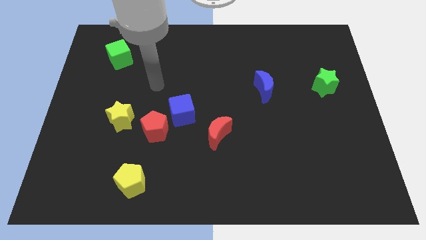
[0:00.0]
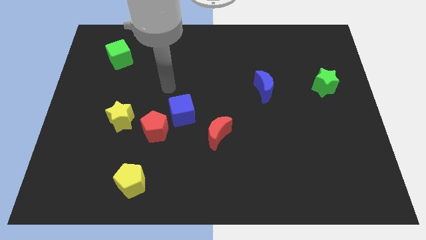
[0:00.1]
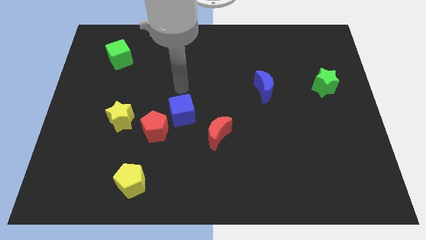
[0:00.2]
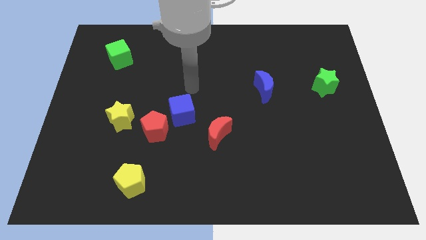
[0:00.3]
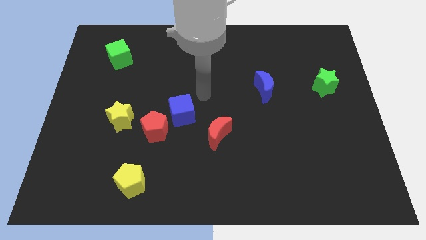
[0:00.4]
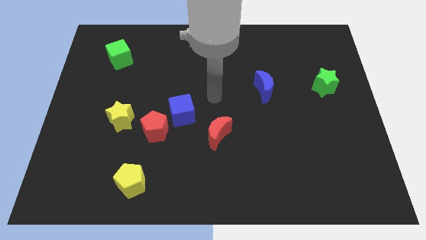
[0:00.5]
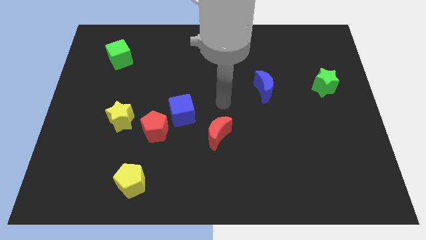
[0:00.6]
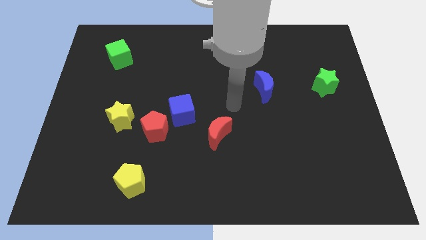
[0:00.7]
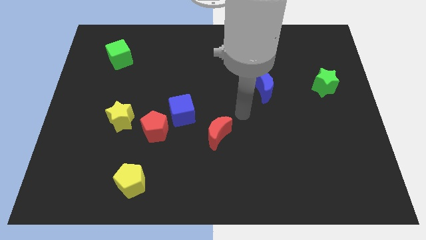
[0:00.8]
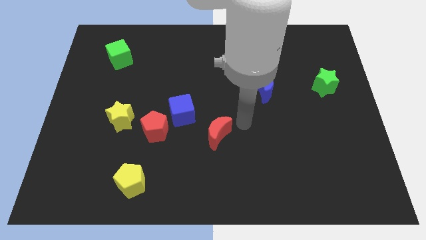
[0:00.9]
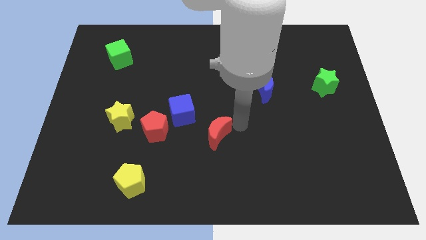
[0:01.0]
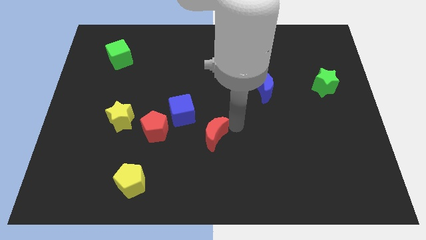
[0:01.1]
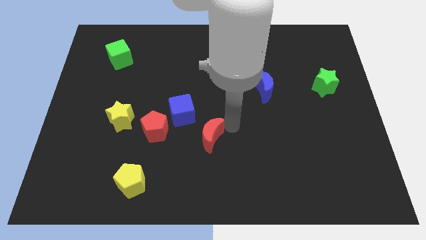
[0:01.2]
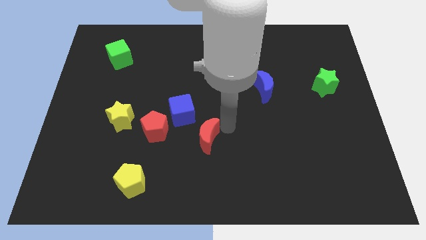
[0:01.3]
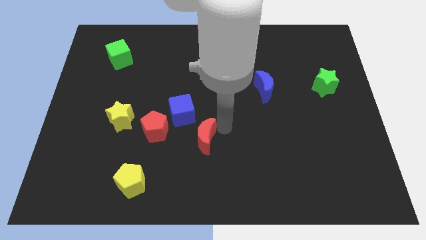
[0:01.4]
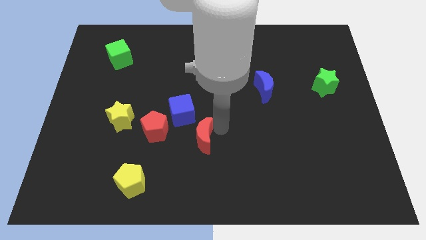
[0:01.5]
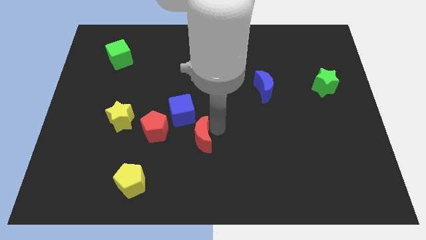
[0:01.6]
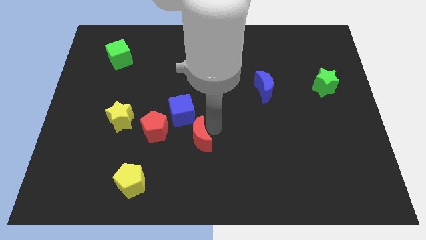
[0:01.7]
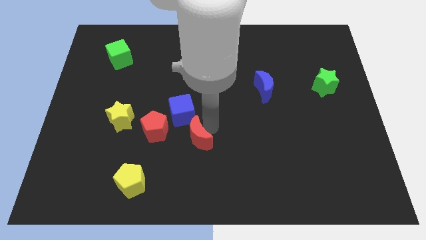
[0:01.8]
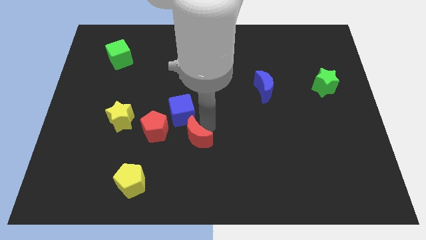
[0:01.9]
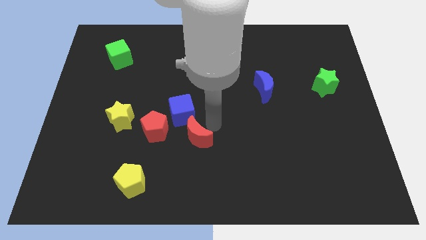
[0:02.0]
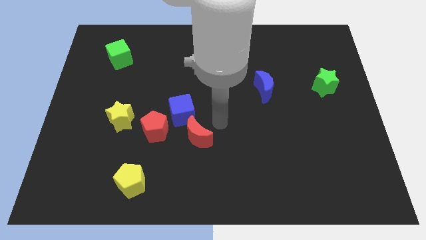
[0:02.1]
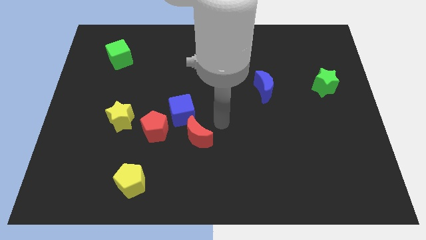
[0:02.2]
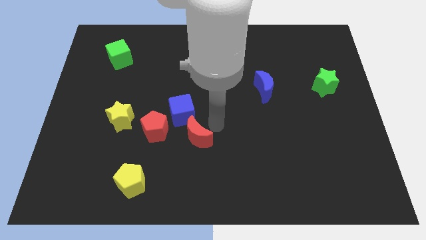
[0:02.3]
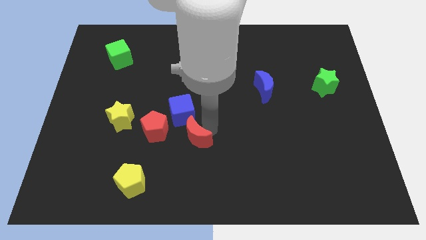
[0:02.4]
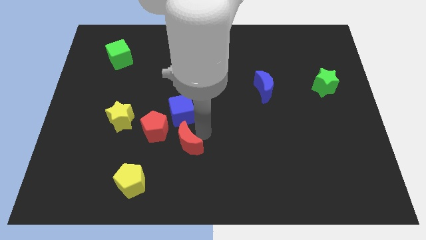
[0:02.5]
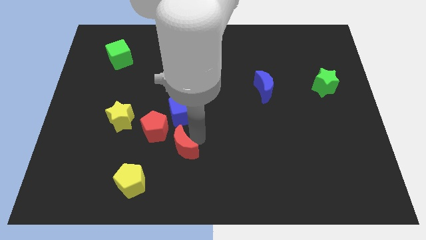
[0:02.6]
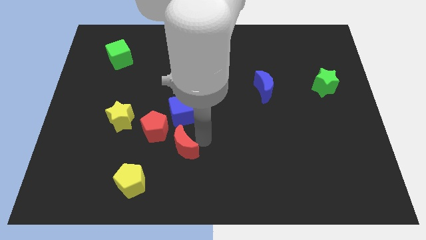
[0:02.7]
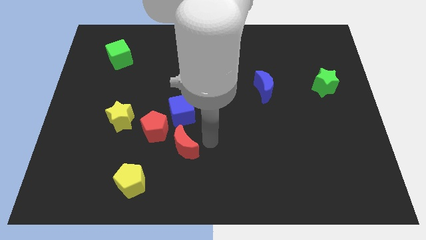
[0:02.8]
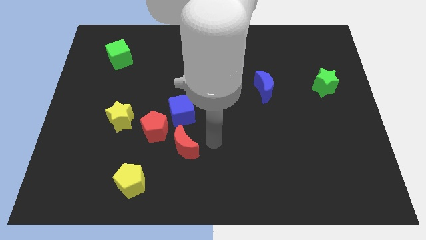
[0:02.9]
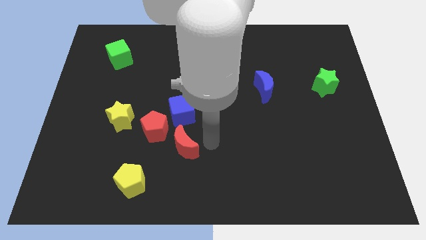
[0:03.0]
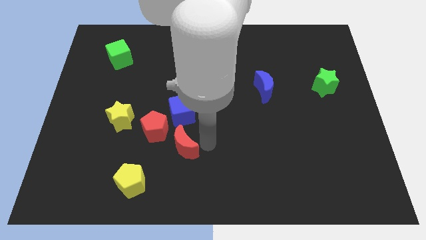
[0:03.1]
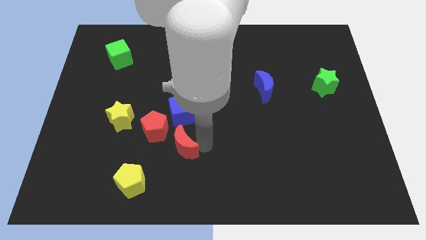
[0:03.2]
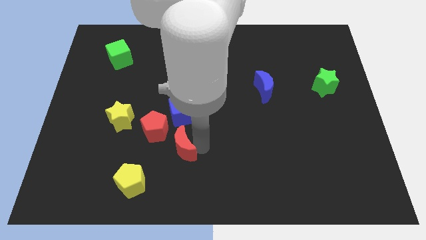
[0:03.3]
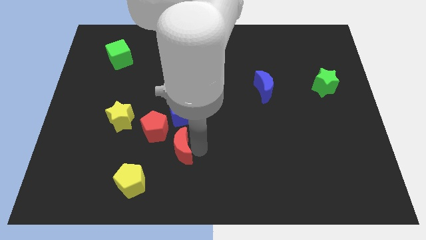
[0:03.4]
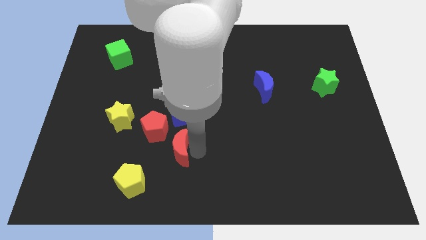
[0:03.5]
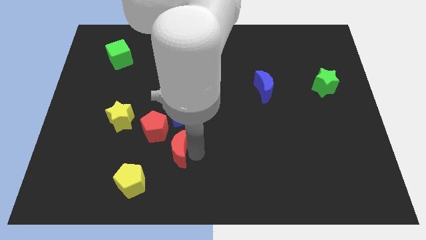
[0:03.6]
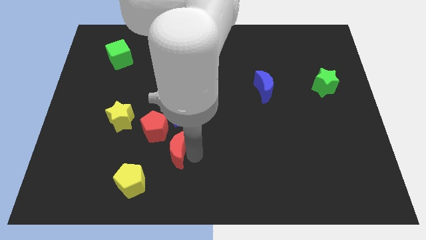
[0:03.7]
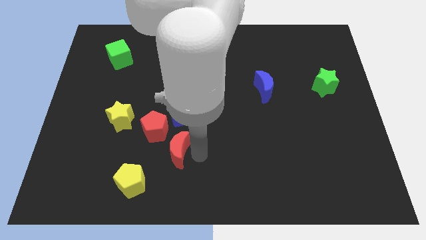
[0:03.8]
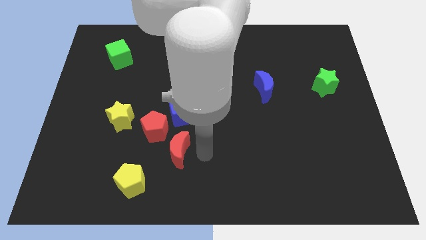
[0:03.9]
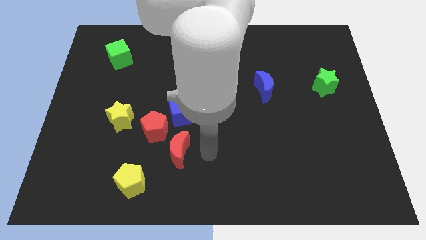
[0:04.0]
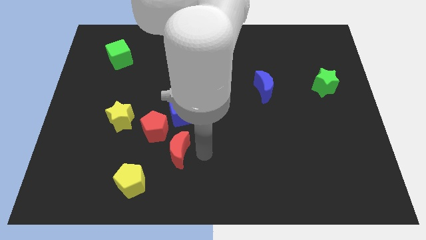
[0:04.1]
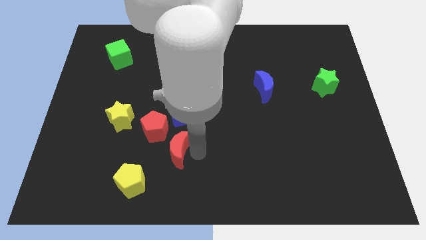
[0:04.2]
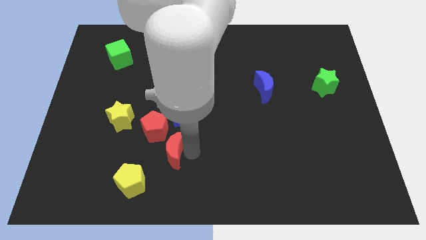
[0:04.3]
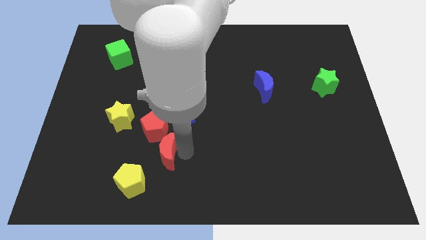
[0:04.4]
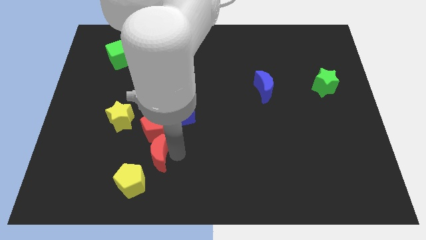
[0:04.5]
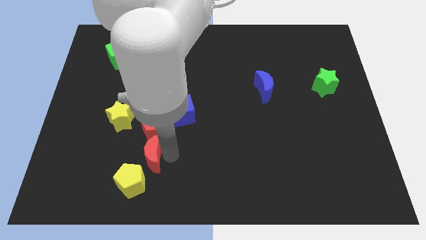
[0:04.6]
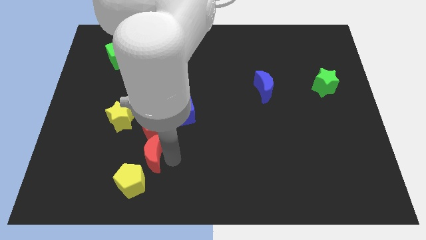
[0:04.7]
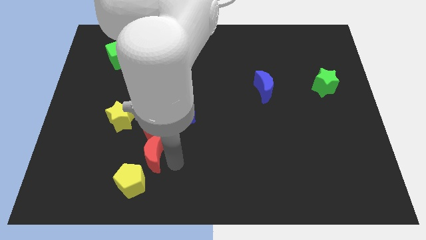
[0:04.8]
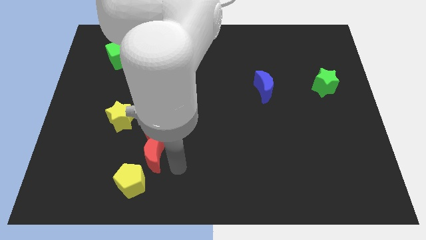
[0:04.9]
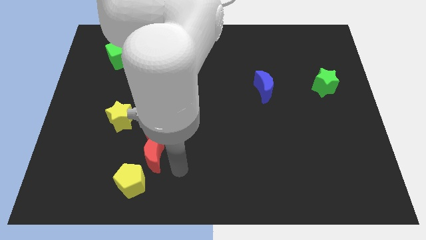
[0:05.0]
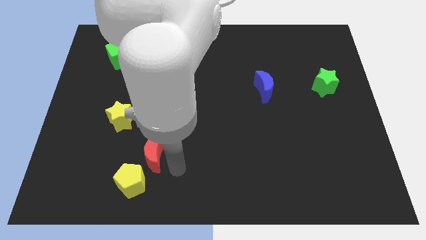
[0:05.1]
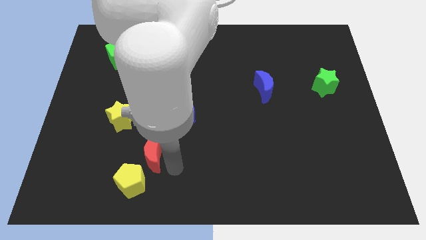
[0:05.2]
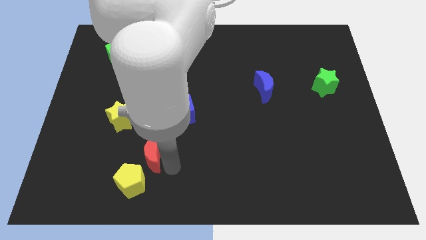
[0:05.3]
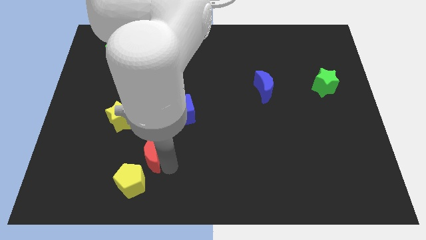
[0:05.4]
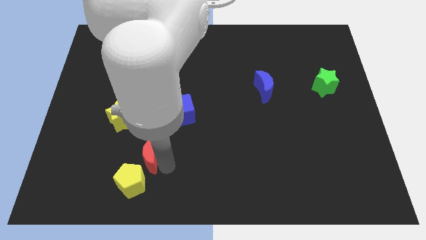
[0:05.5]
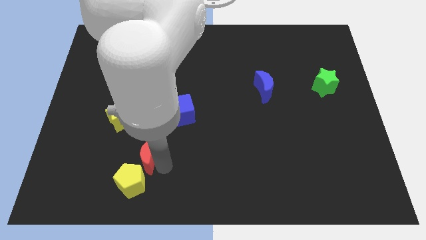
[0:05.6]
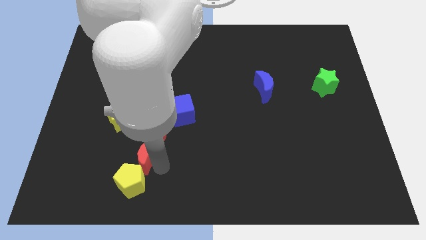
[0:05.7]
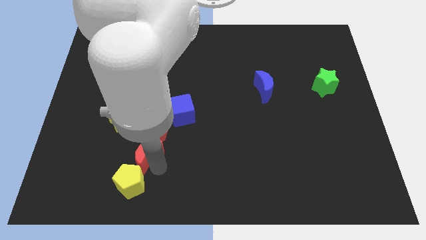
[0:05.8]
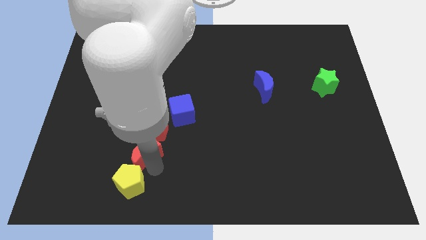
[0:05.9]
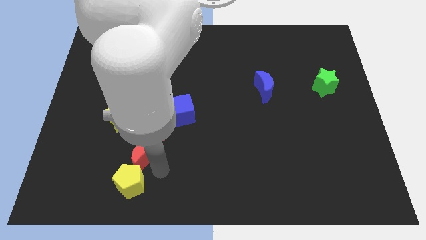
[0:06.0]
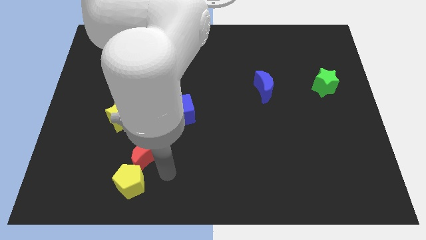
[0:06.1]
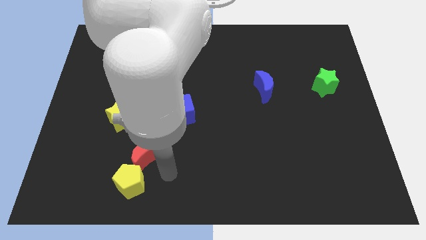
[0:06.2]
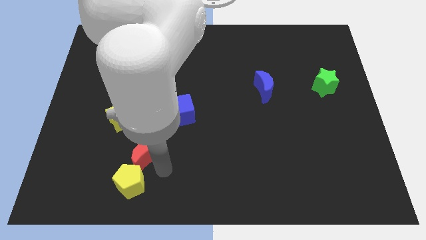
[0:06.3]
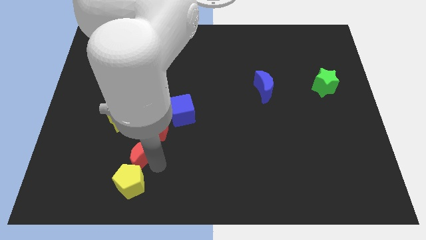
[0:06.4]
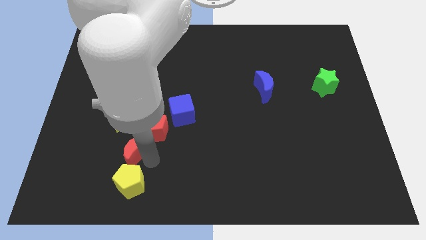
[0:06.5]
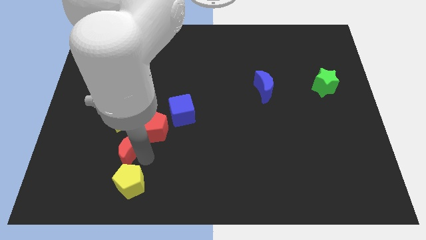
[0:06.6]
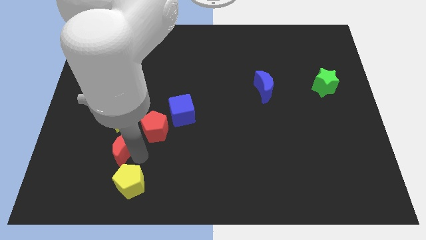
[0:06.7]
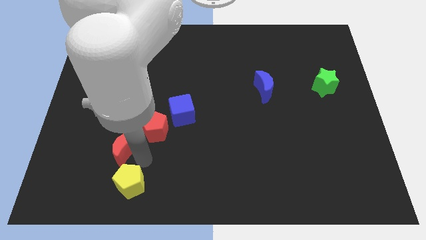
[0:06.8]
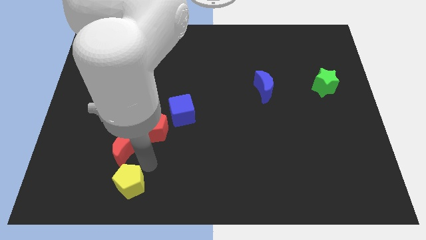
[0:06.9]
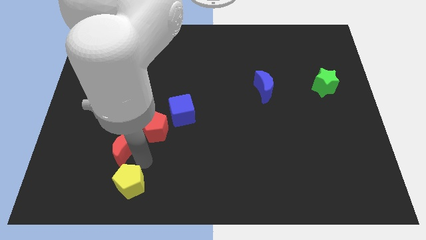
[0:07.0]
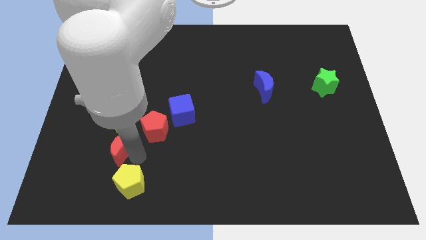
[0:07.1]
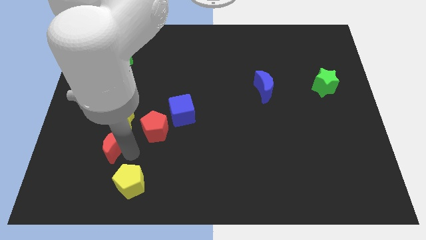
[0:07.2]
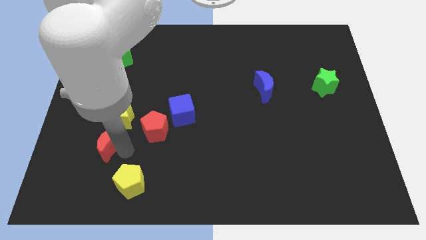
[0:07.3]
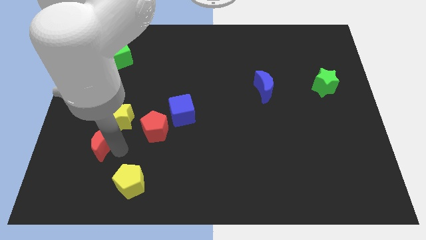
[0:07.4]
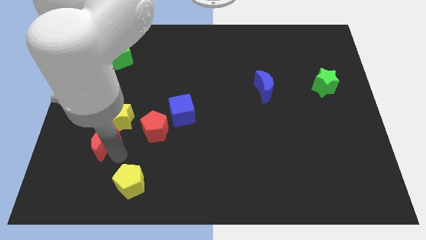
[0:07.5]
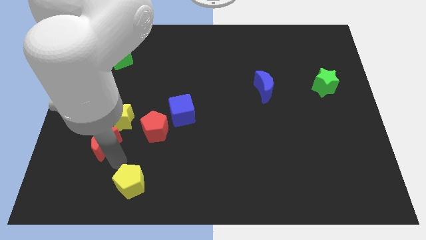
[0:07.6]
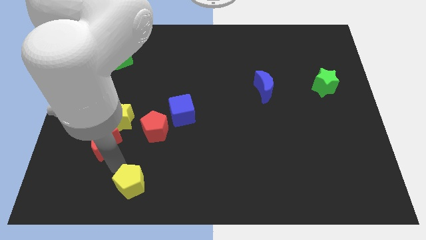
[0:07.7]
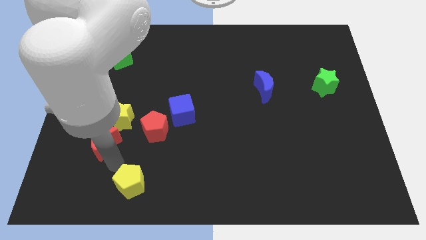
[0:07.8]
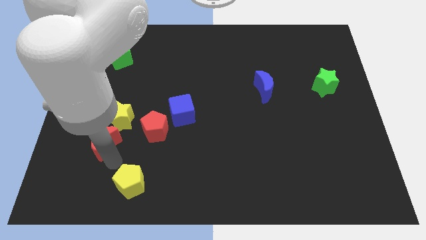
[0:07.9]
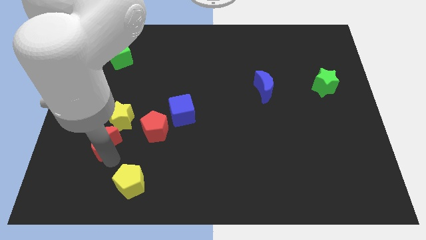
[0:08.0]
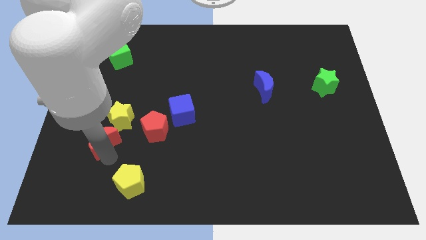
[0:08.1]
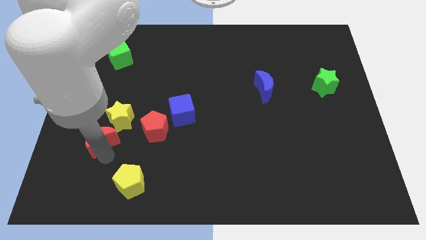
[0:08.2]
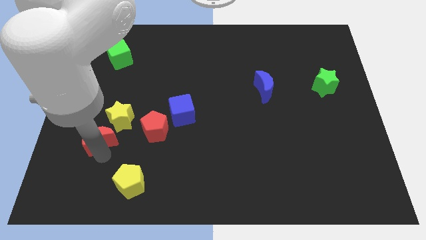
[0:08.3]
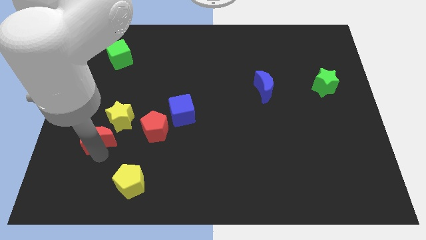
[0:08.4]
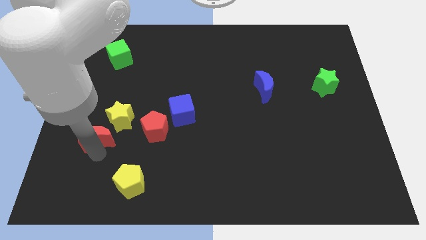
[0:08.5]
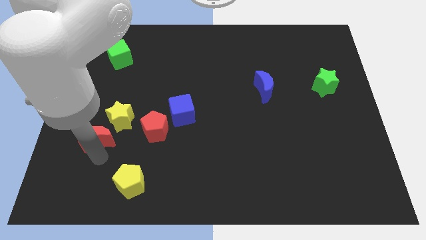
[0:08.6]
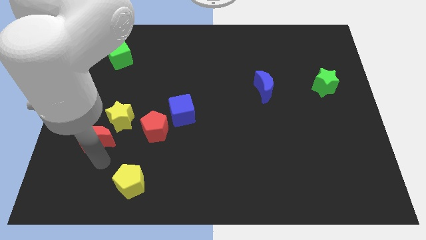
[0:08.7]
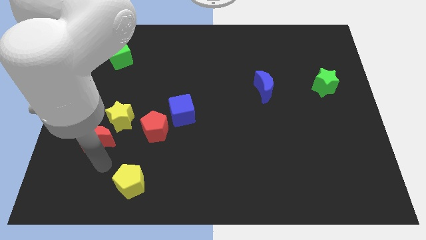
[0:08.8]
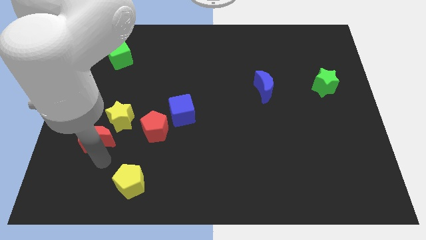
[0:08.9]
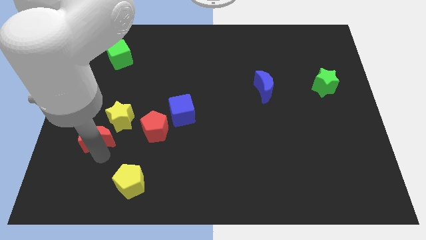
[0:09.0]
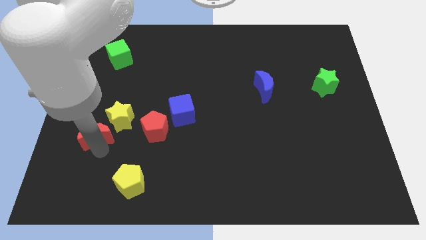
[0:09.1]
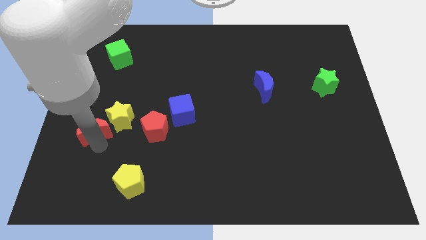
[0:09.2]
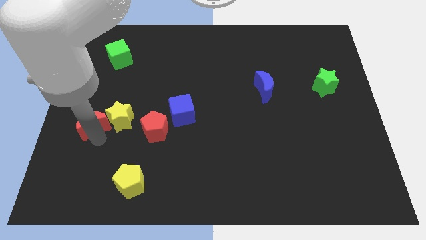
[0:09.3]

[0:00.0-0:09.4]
put the red moon to the left side
